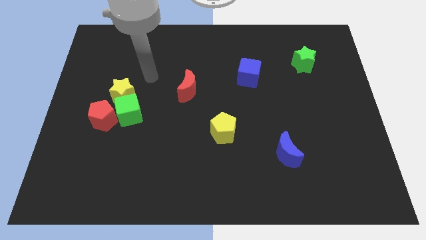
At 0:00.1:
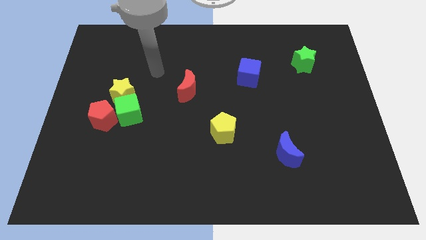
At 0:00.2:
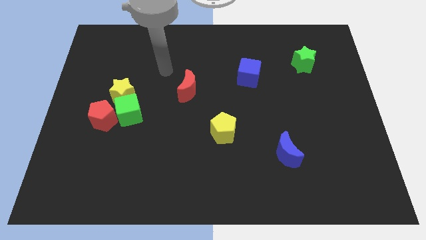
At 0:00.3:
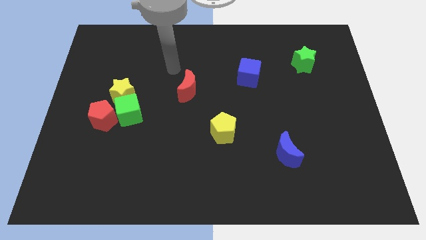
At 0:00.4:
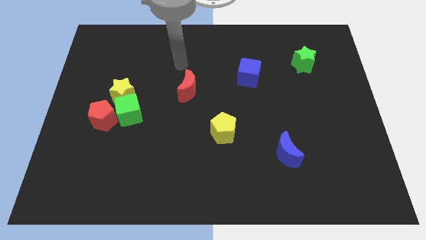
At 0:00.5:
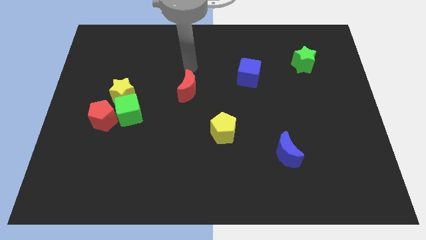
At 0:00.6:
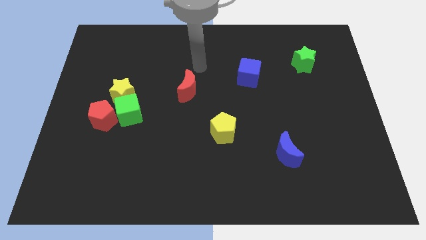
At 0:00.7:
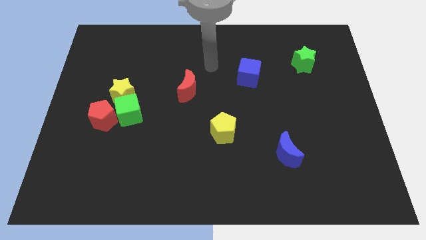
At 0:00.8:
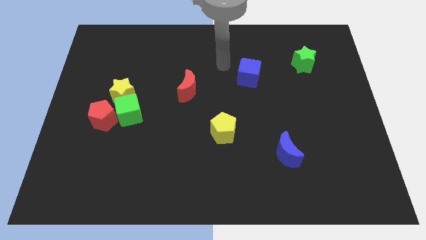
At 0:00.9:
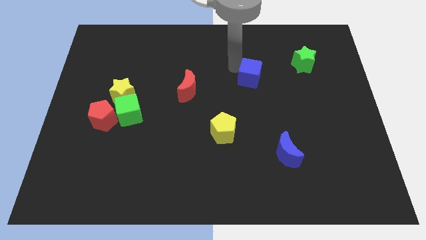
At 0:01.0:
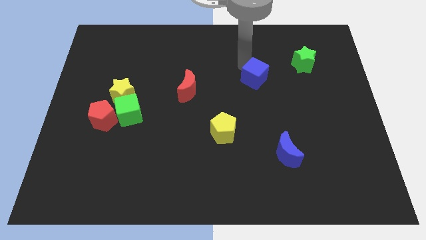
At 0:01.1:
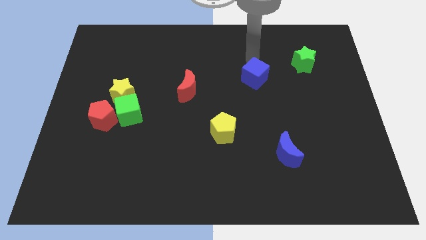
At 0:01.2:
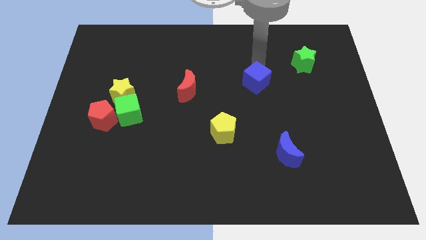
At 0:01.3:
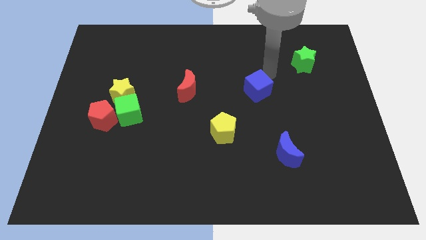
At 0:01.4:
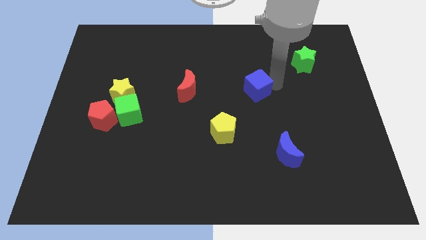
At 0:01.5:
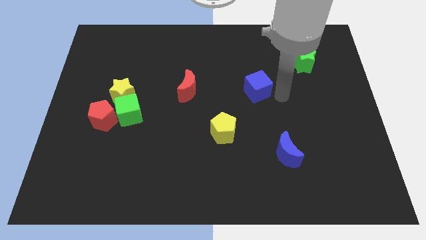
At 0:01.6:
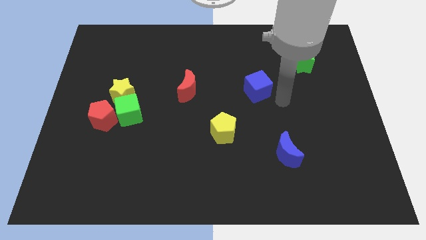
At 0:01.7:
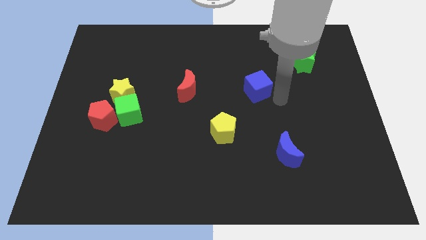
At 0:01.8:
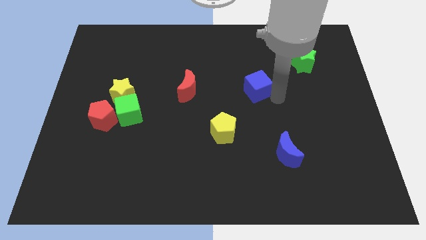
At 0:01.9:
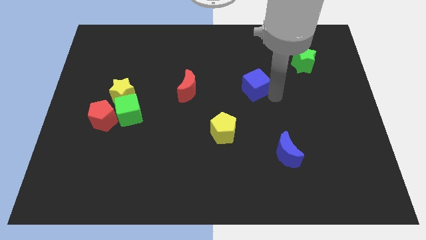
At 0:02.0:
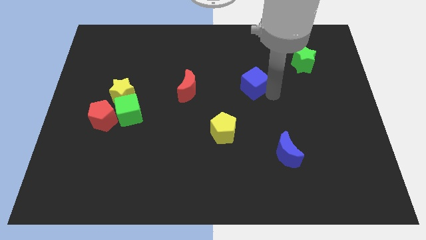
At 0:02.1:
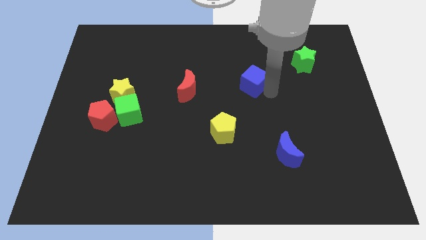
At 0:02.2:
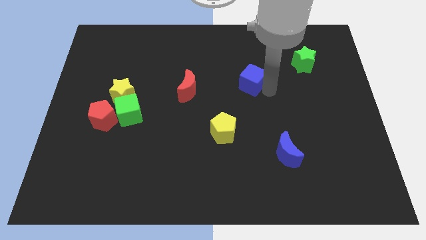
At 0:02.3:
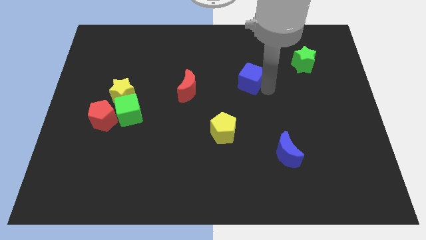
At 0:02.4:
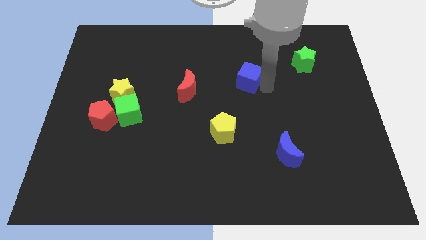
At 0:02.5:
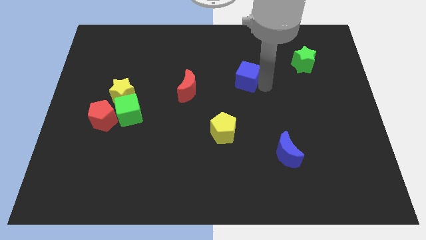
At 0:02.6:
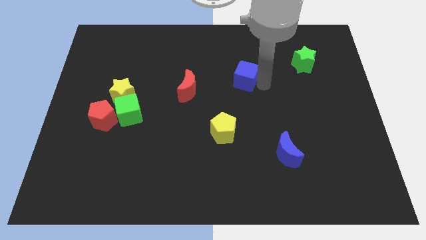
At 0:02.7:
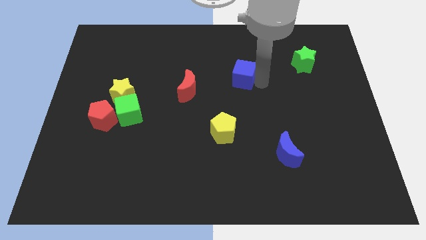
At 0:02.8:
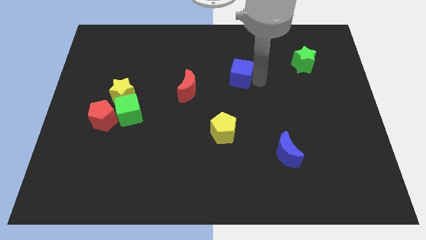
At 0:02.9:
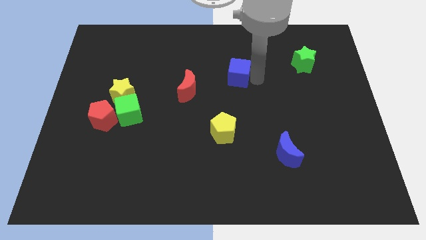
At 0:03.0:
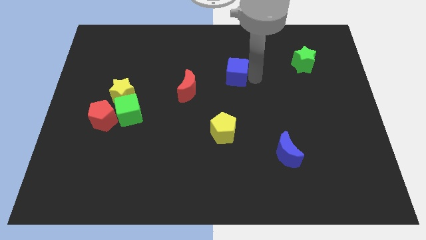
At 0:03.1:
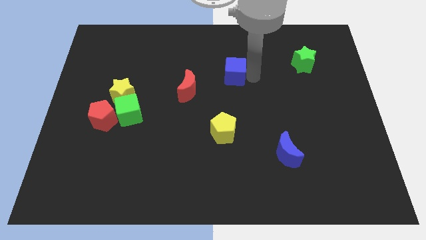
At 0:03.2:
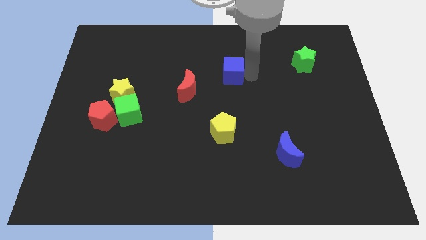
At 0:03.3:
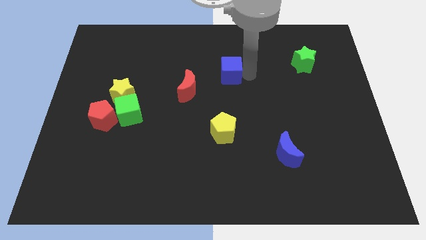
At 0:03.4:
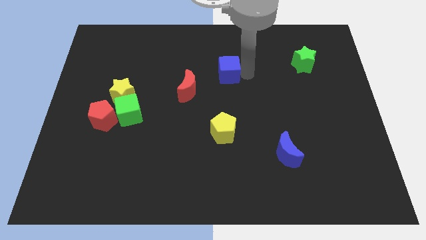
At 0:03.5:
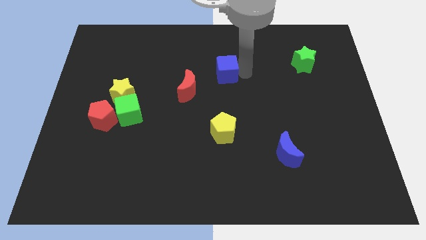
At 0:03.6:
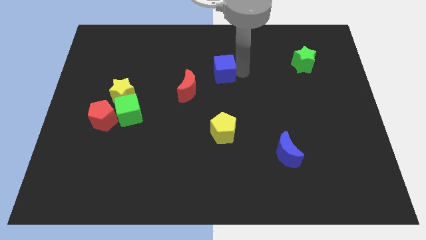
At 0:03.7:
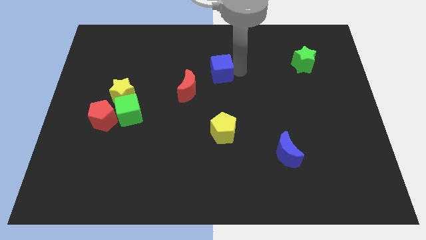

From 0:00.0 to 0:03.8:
slide the blue cube a little bit to the left

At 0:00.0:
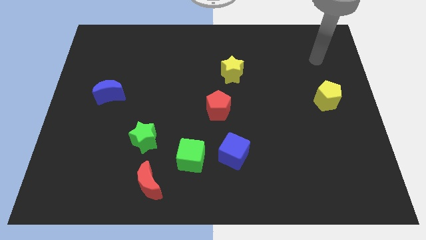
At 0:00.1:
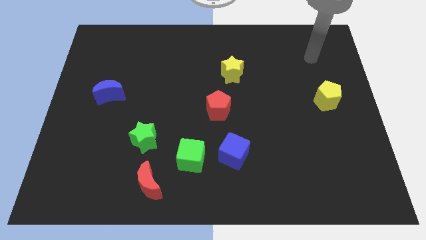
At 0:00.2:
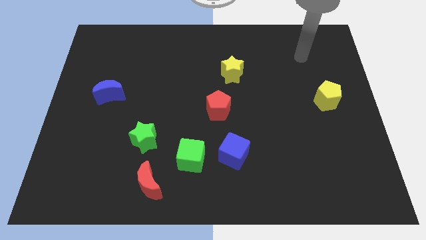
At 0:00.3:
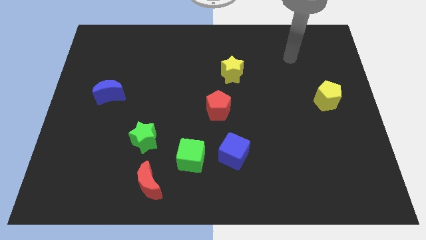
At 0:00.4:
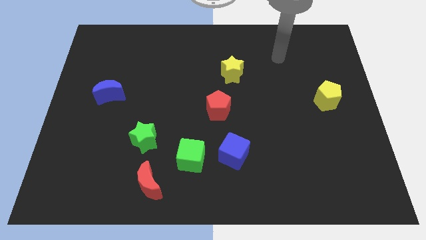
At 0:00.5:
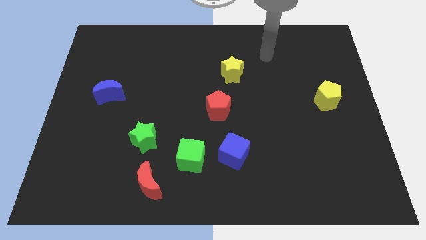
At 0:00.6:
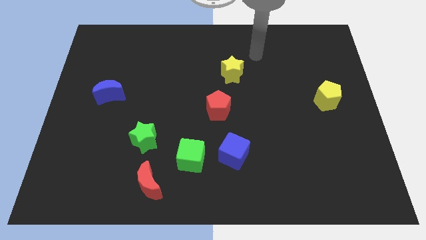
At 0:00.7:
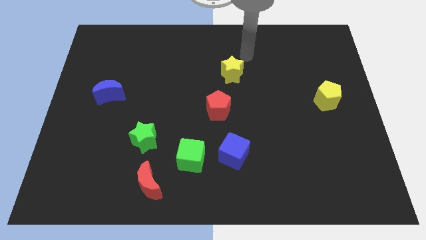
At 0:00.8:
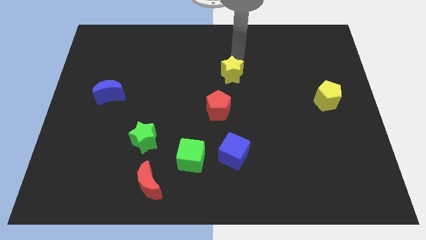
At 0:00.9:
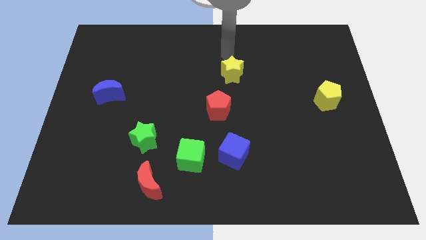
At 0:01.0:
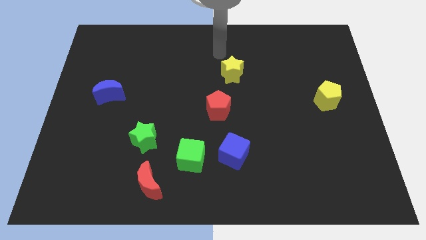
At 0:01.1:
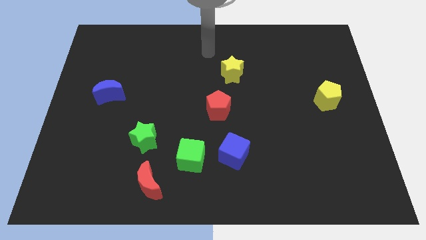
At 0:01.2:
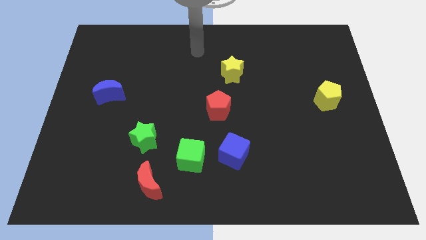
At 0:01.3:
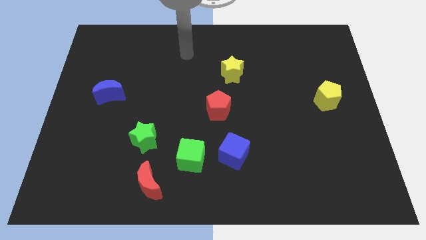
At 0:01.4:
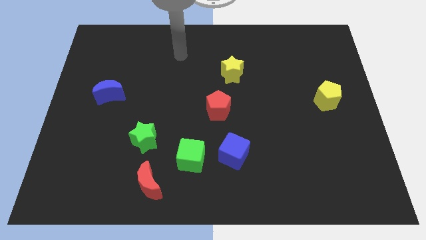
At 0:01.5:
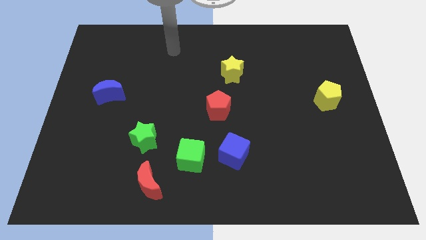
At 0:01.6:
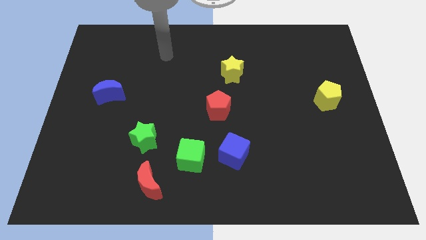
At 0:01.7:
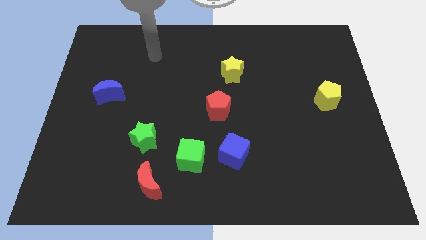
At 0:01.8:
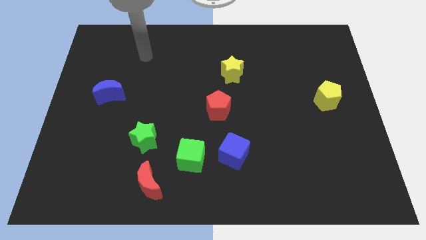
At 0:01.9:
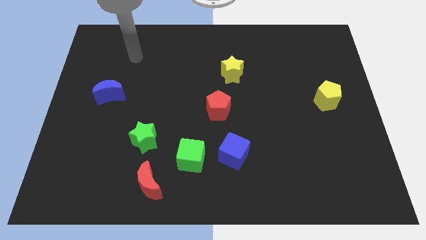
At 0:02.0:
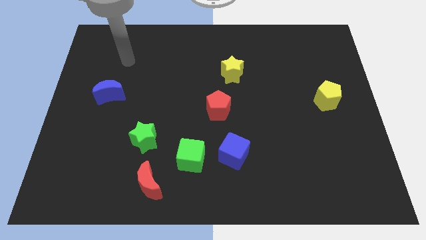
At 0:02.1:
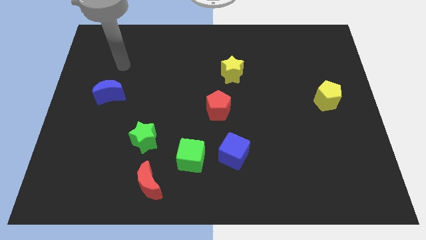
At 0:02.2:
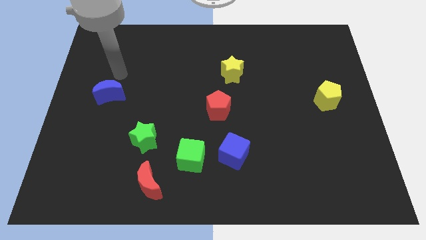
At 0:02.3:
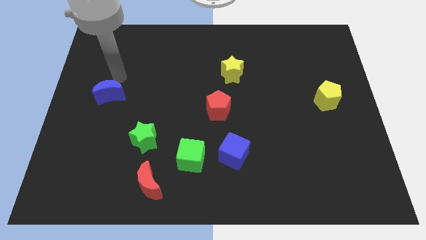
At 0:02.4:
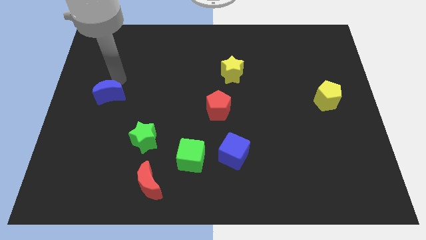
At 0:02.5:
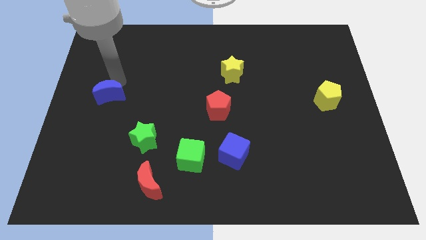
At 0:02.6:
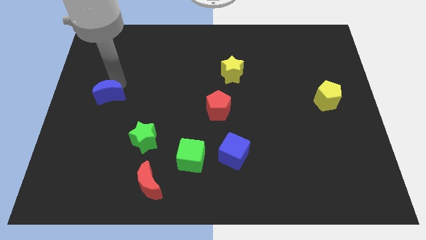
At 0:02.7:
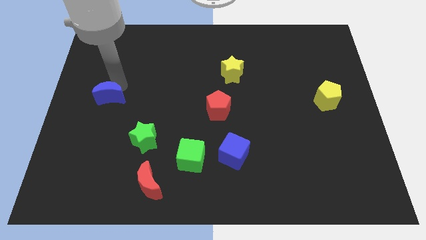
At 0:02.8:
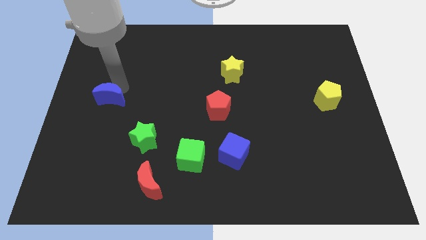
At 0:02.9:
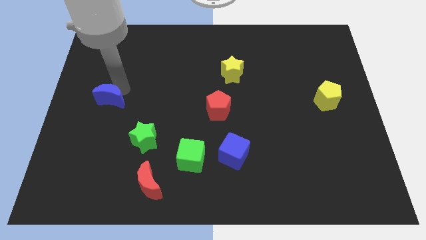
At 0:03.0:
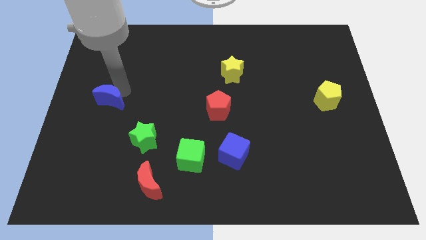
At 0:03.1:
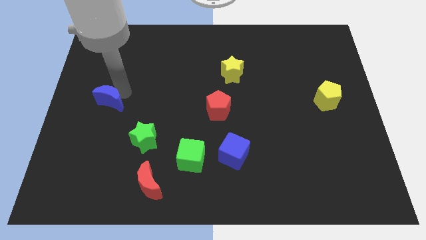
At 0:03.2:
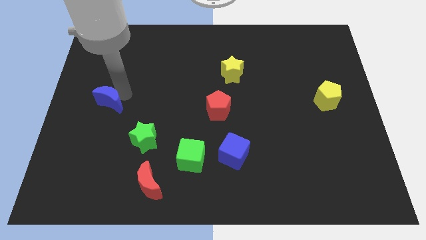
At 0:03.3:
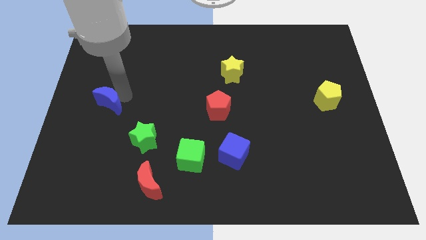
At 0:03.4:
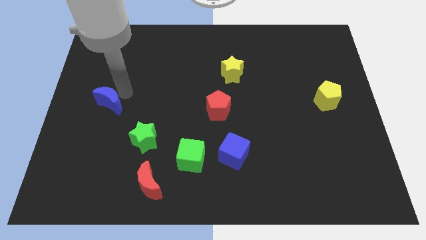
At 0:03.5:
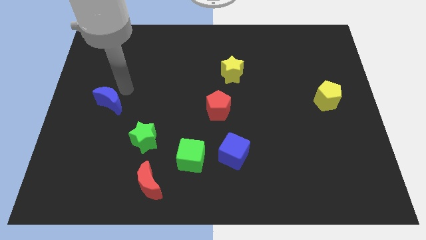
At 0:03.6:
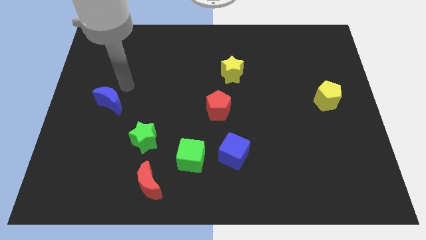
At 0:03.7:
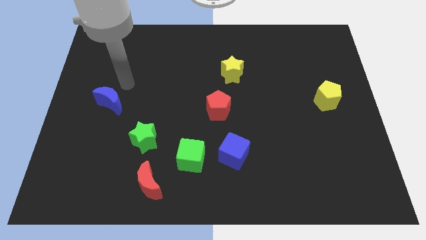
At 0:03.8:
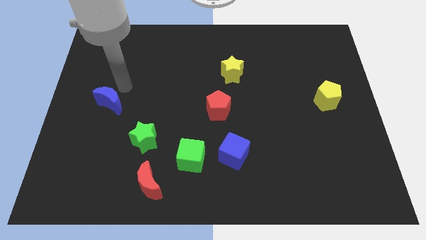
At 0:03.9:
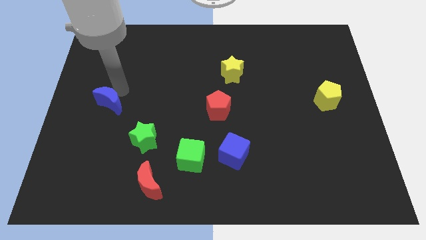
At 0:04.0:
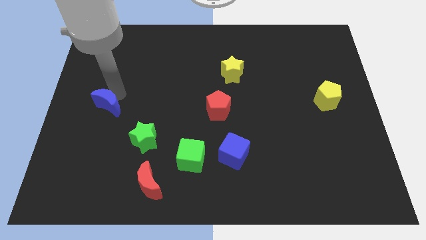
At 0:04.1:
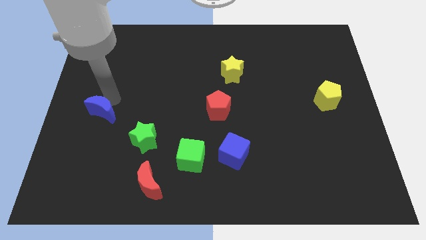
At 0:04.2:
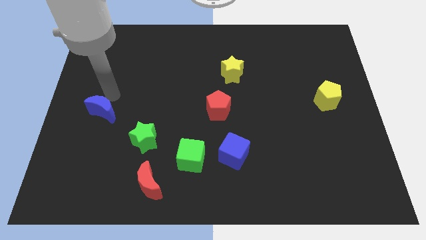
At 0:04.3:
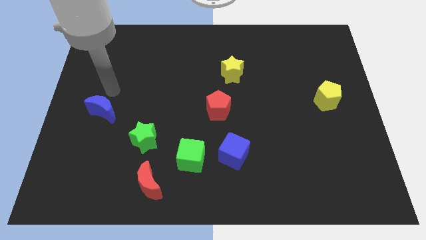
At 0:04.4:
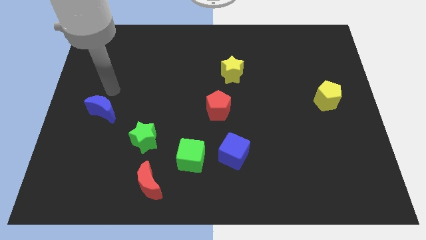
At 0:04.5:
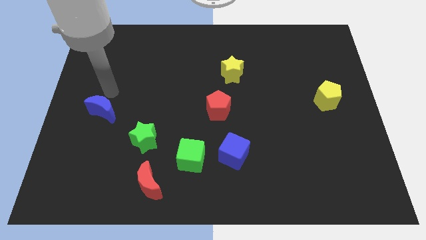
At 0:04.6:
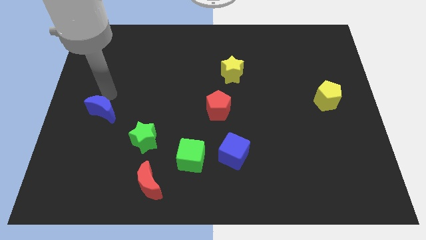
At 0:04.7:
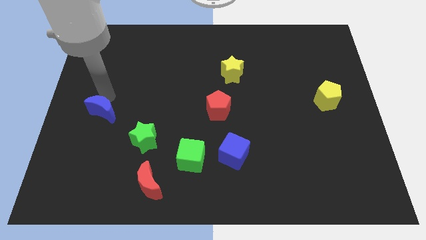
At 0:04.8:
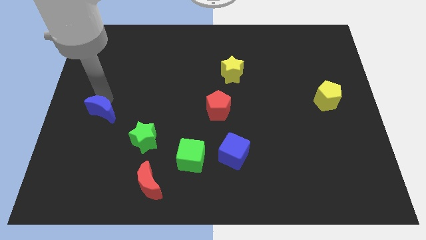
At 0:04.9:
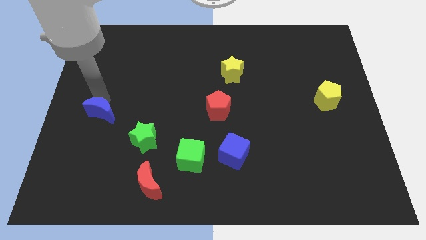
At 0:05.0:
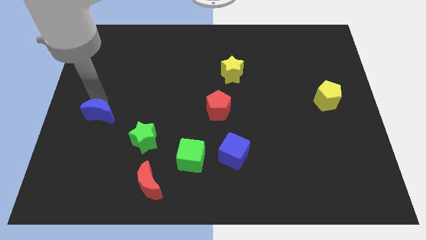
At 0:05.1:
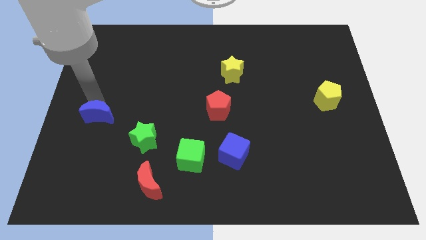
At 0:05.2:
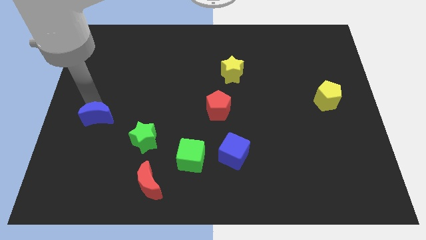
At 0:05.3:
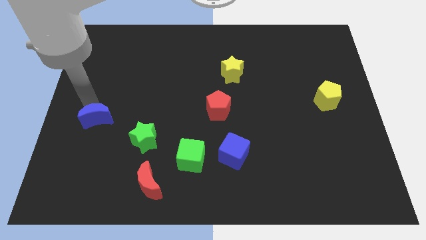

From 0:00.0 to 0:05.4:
move the blue moon a bit downwards
